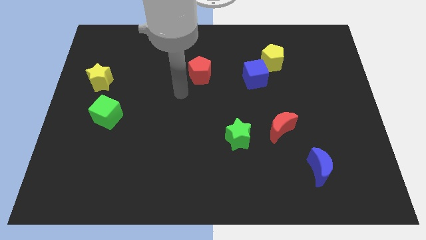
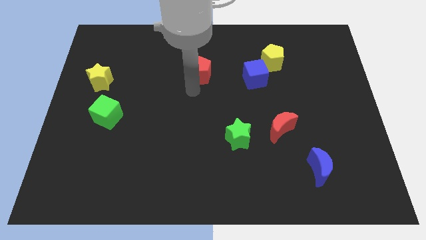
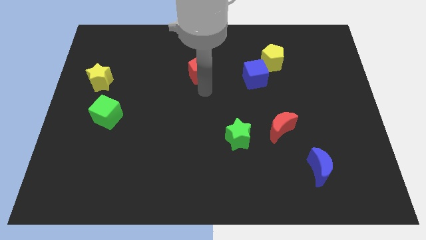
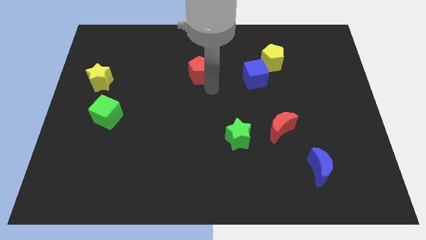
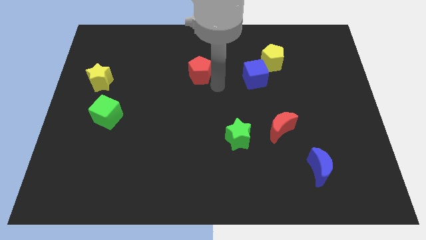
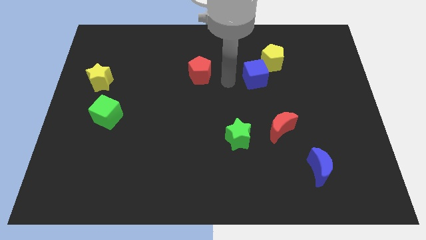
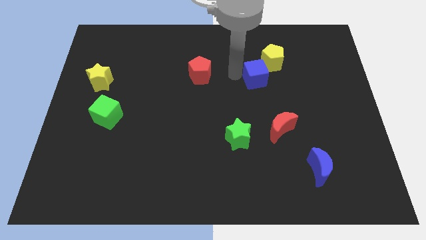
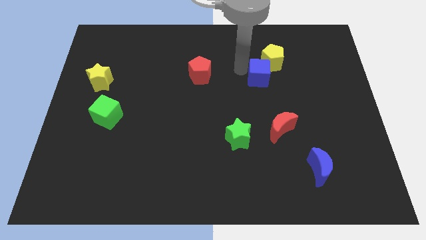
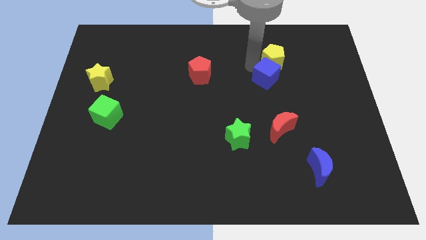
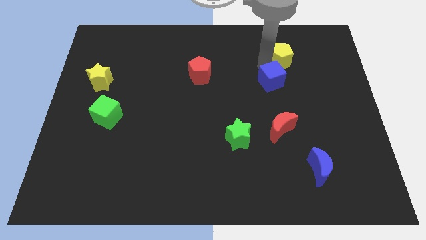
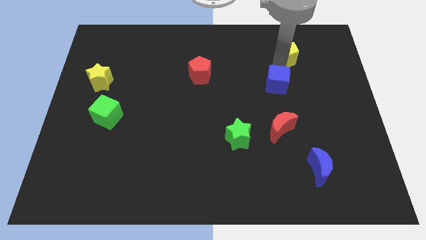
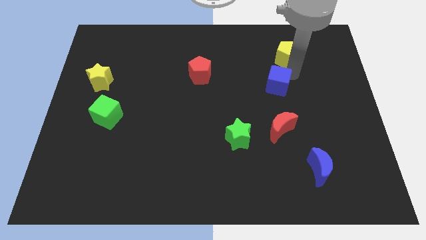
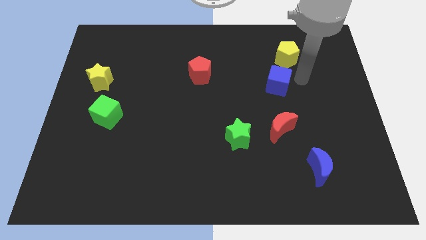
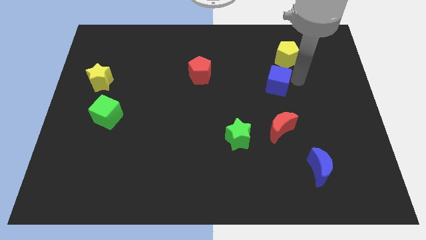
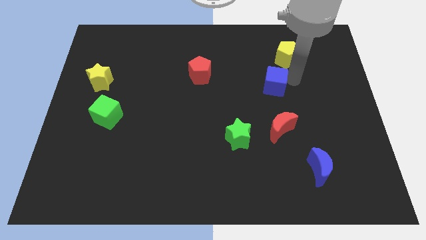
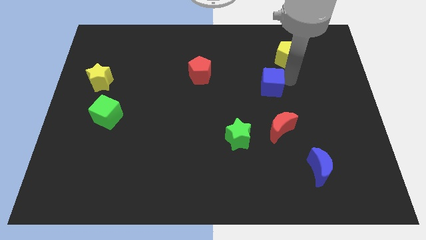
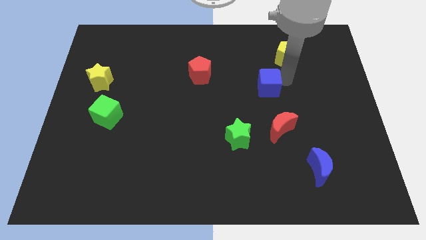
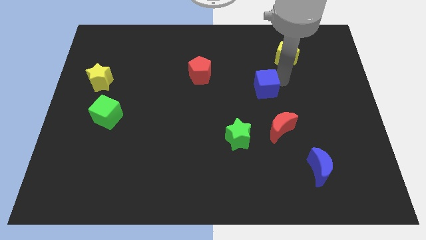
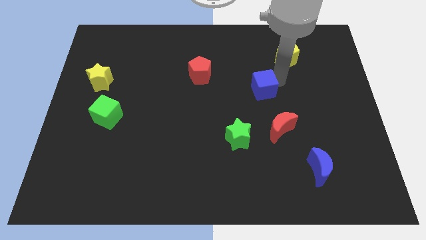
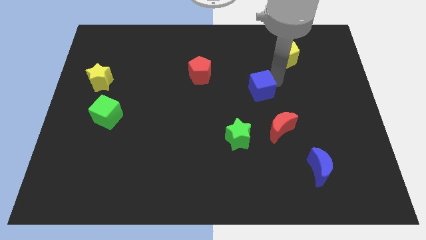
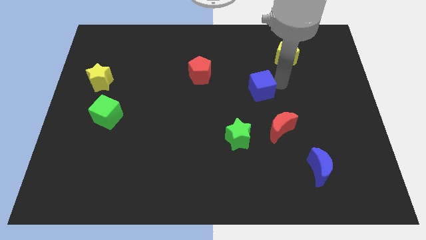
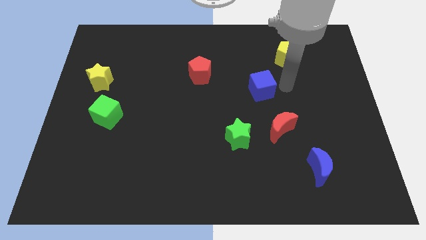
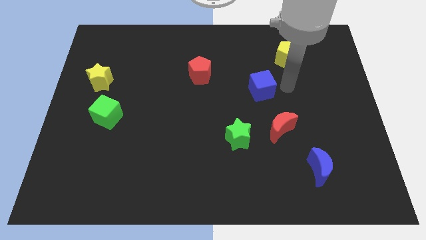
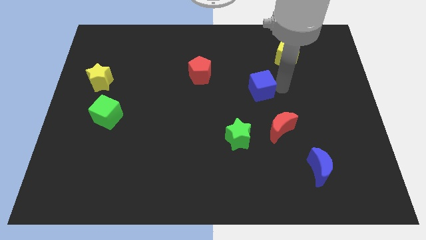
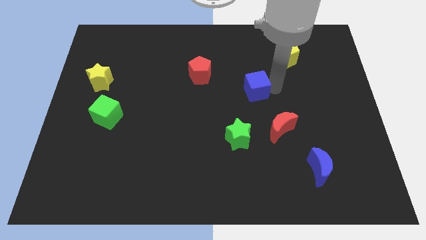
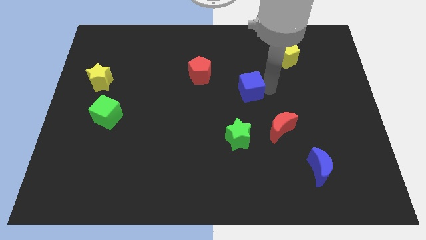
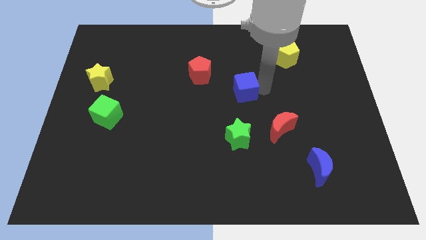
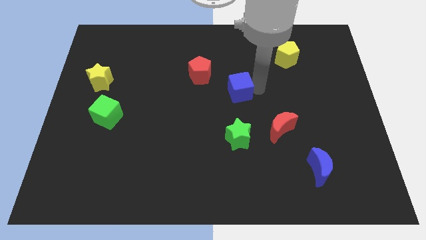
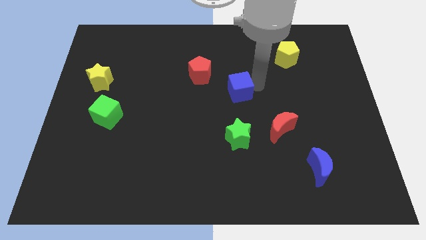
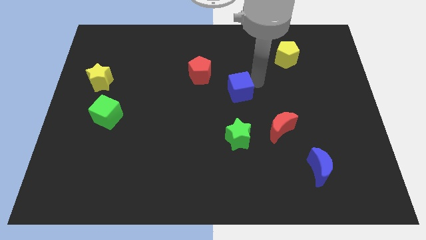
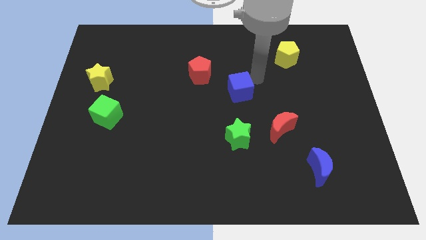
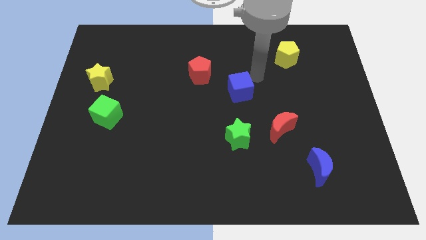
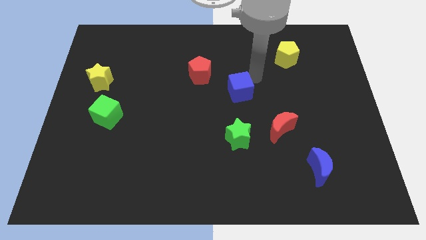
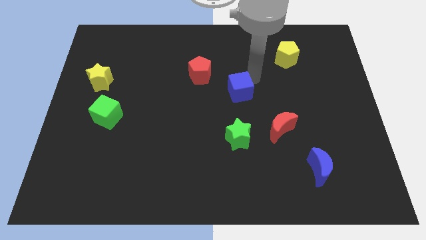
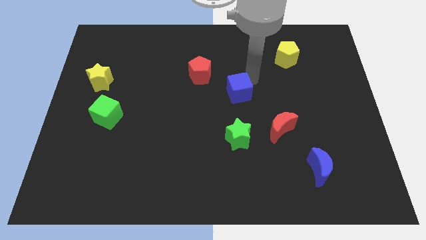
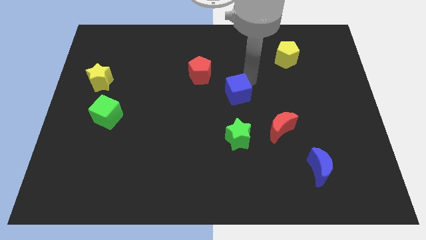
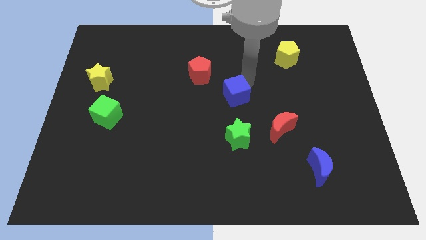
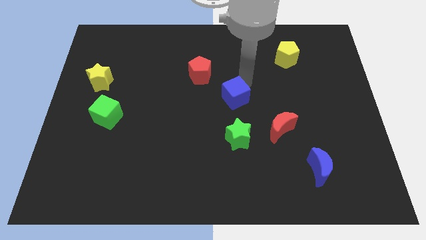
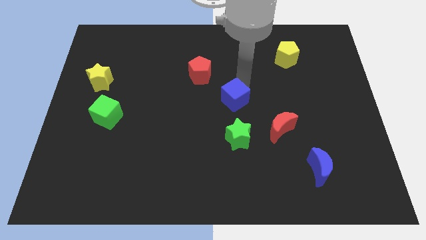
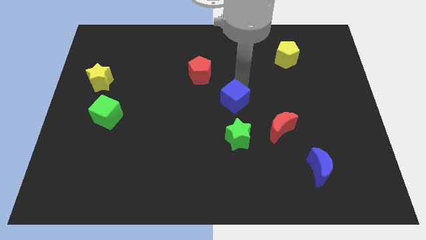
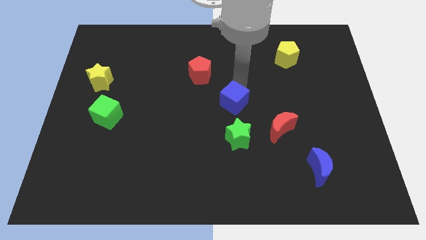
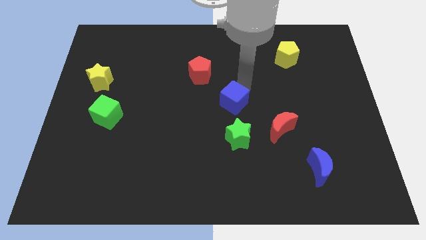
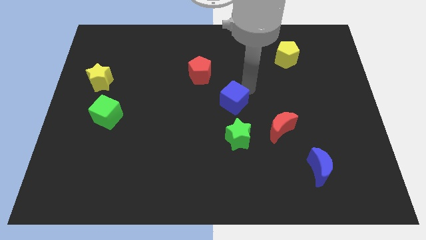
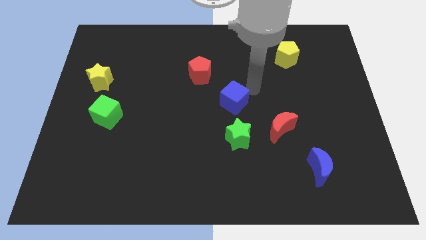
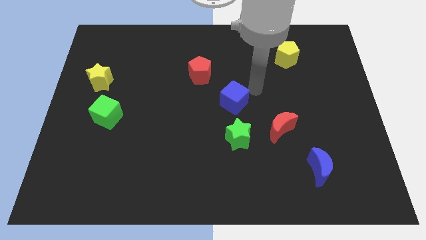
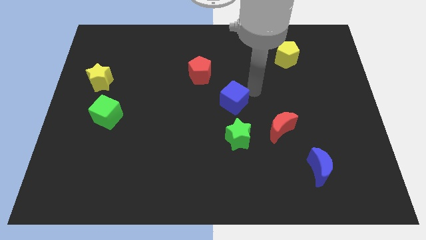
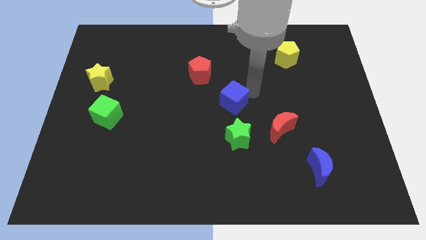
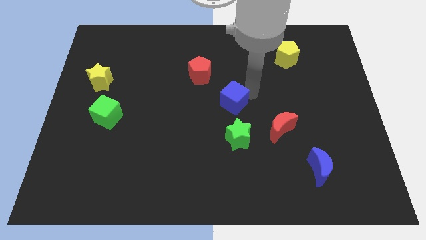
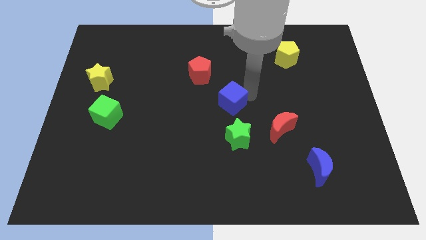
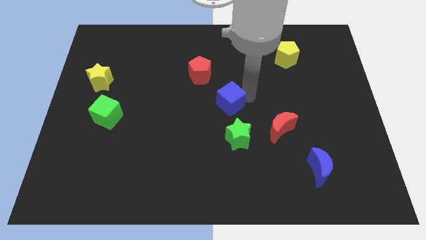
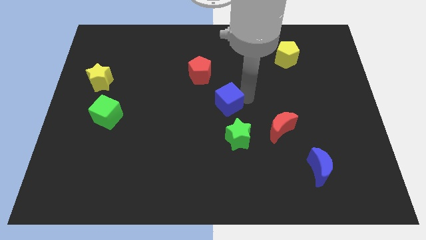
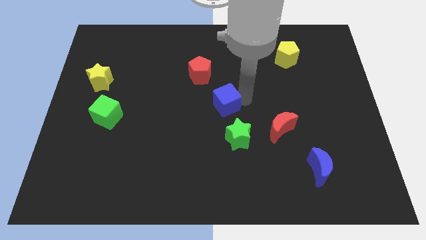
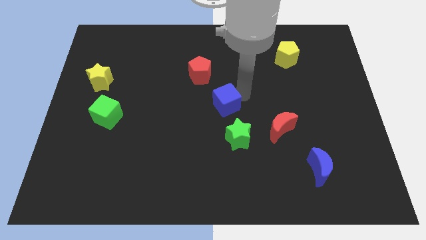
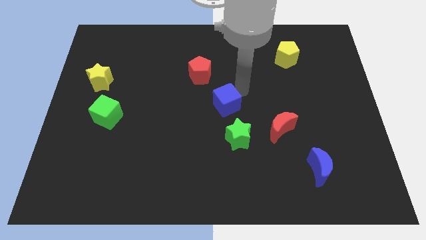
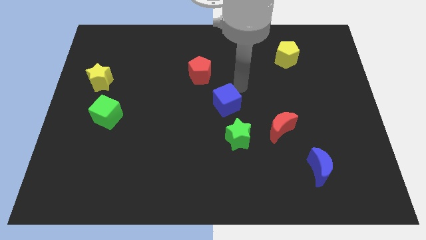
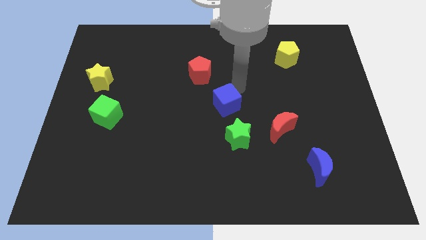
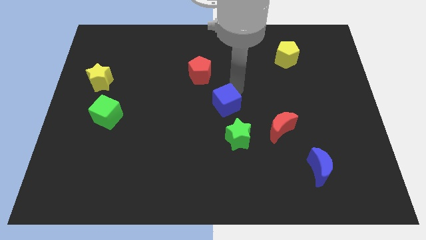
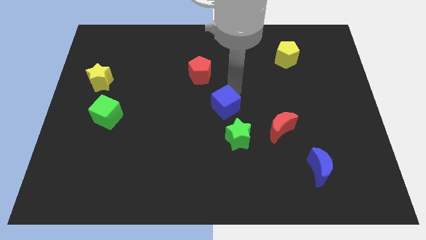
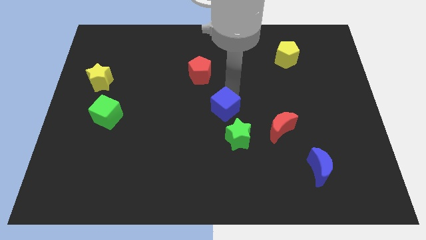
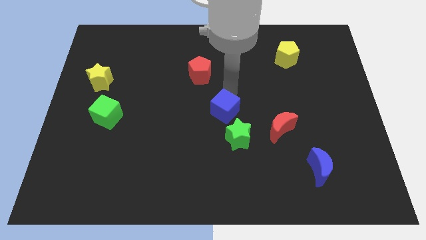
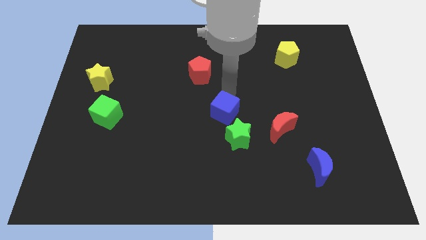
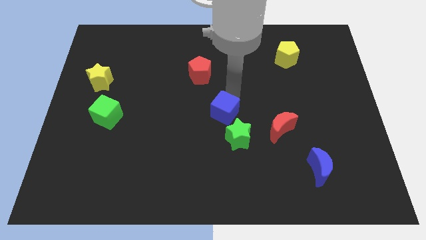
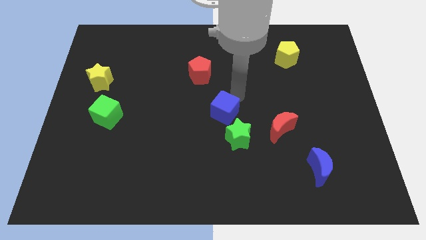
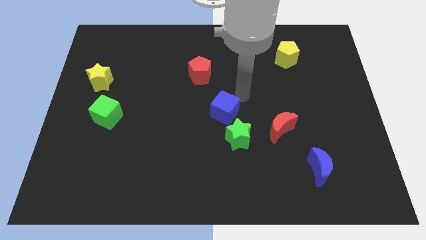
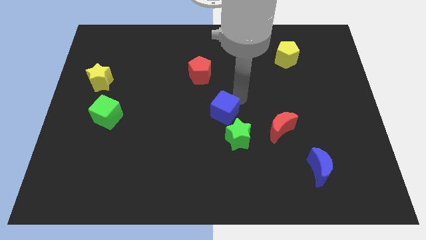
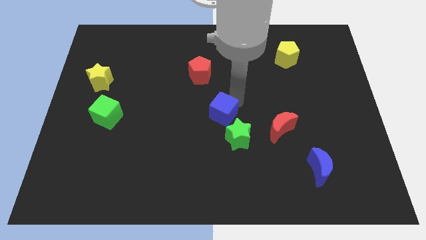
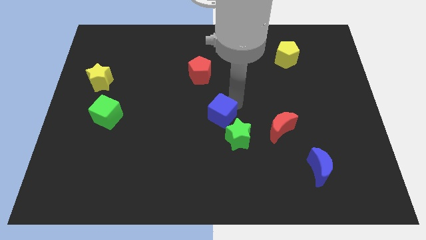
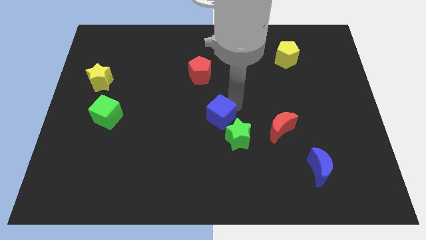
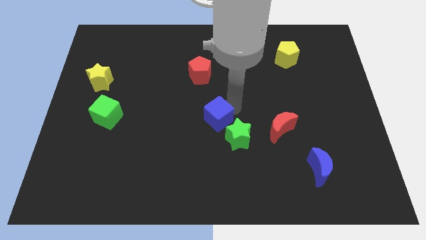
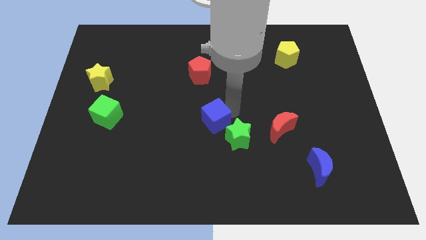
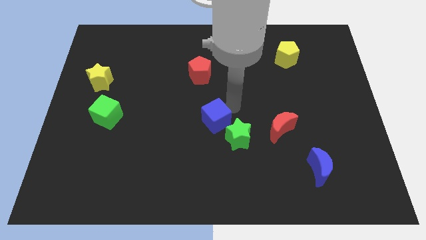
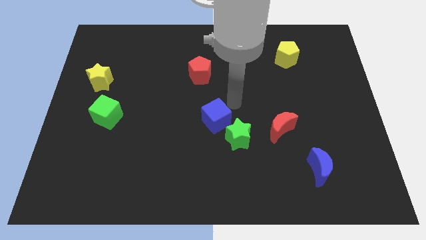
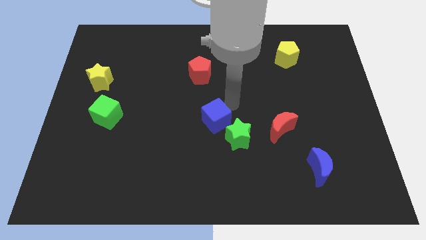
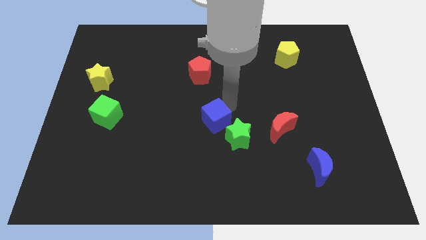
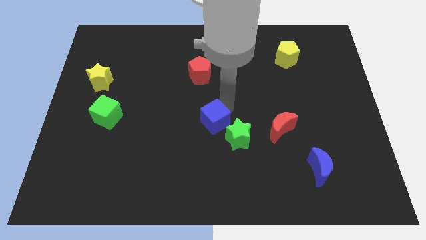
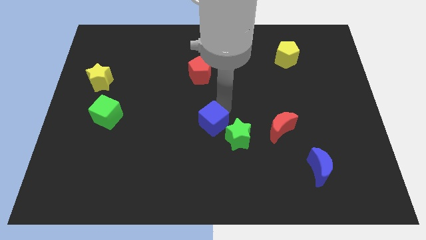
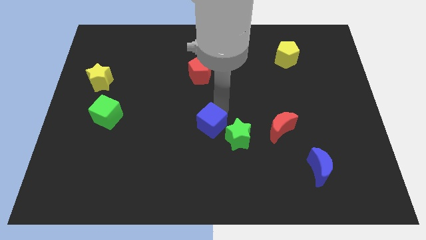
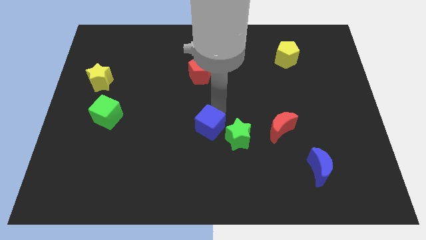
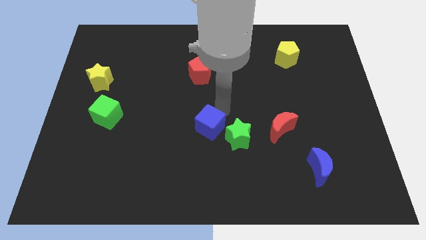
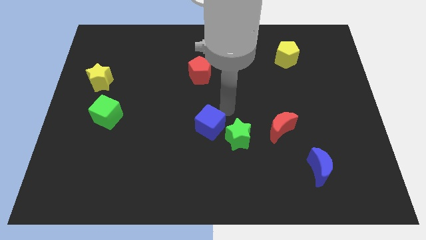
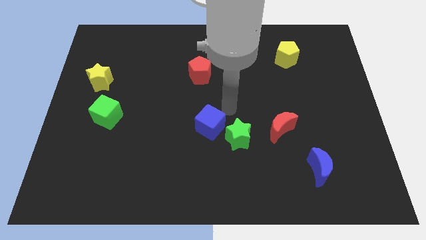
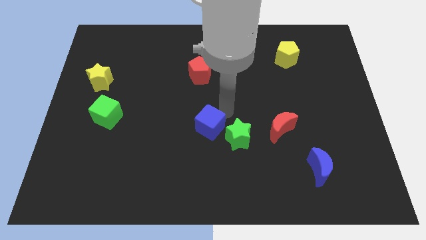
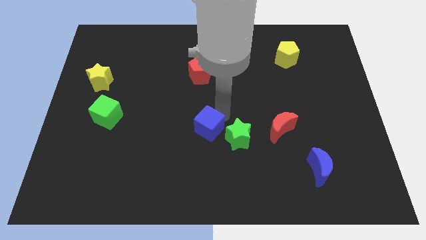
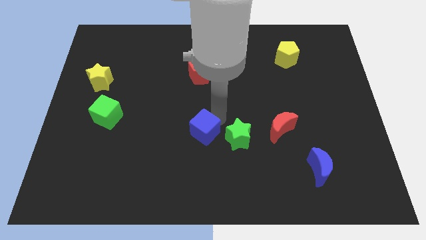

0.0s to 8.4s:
move the blue cube down and then left
